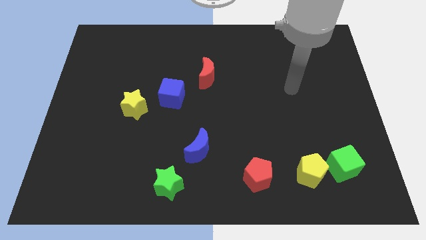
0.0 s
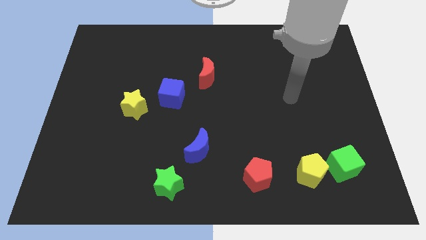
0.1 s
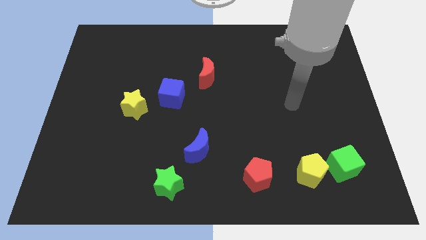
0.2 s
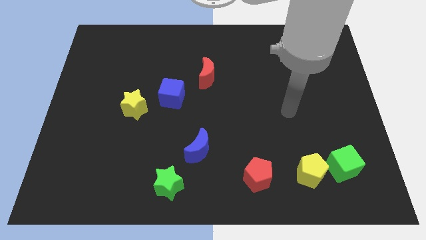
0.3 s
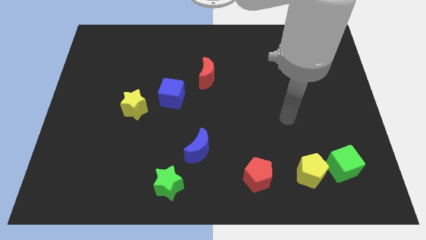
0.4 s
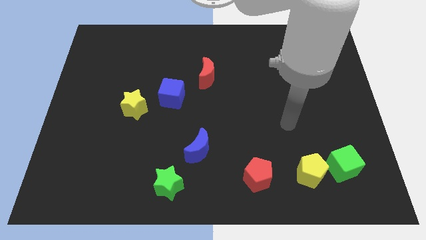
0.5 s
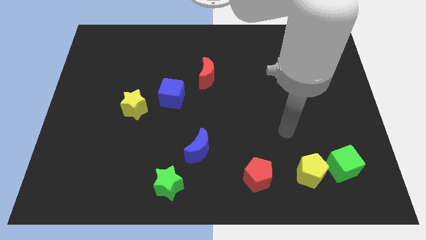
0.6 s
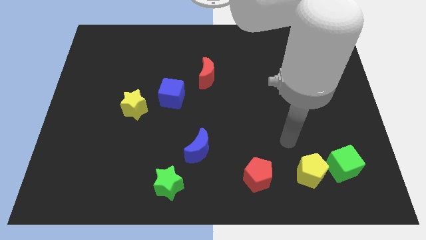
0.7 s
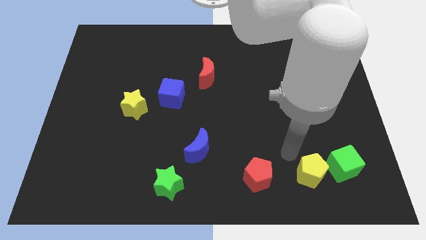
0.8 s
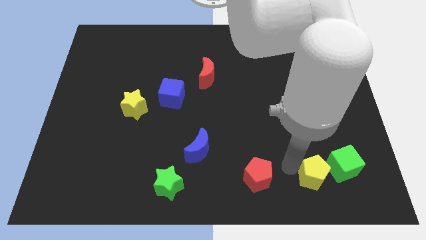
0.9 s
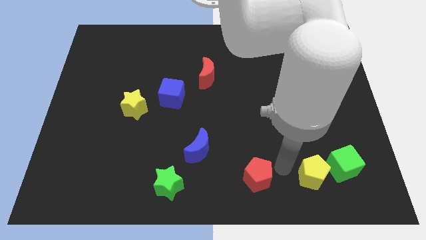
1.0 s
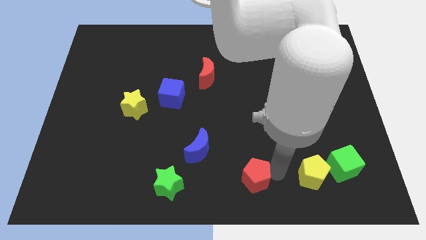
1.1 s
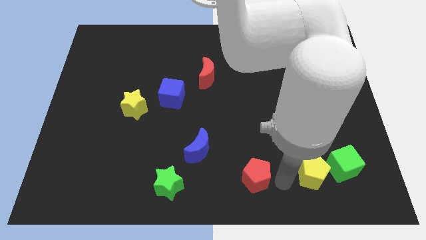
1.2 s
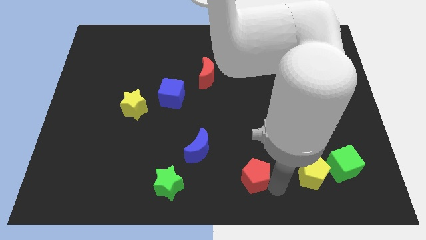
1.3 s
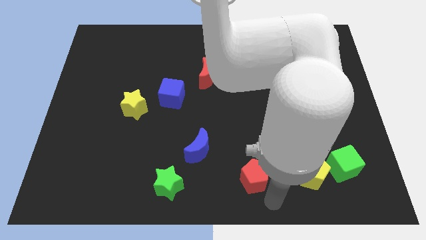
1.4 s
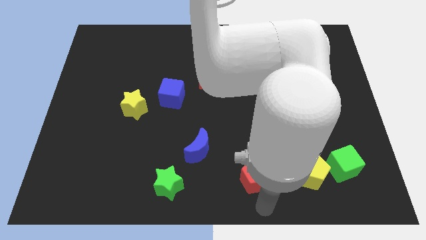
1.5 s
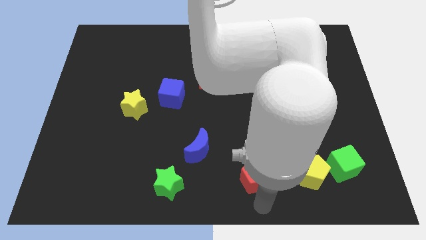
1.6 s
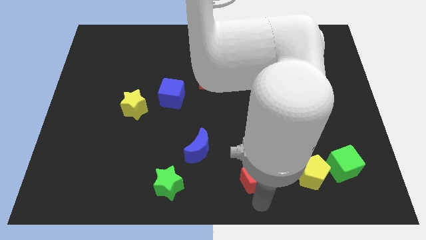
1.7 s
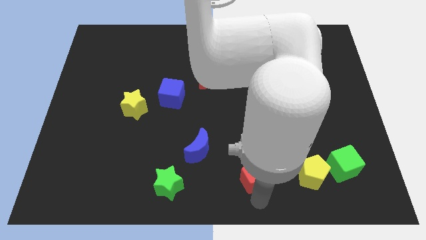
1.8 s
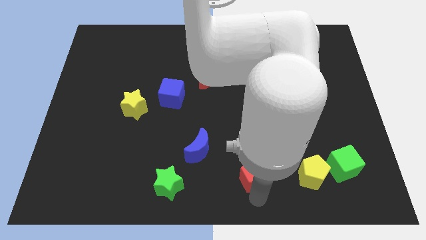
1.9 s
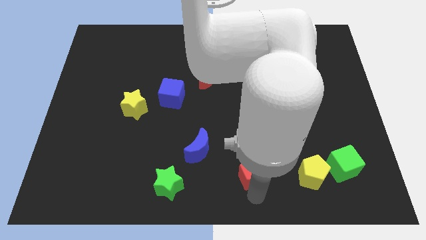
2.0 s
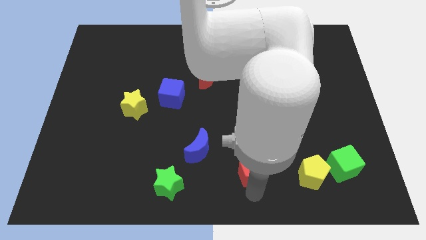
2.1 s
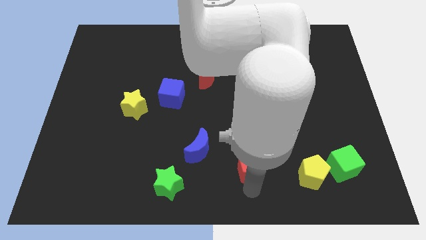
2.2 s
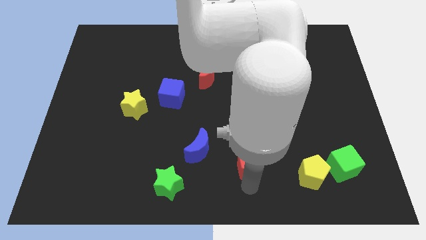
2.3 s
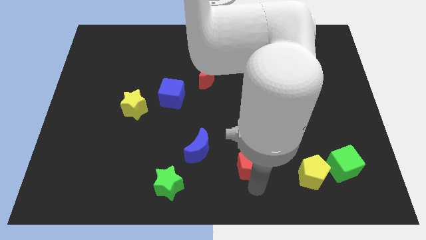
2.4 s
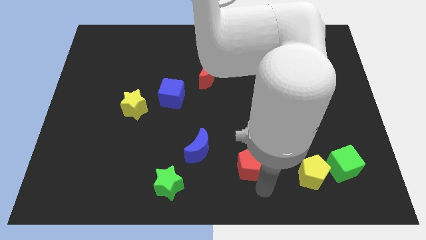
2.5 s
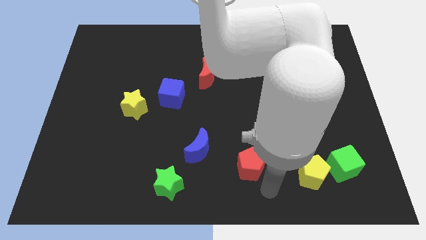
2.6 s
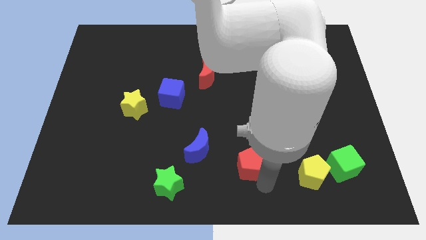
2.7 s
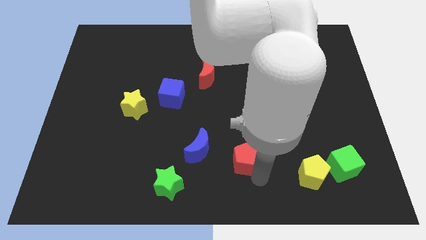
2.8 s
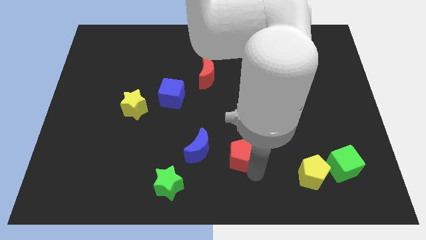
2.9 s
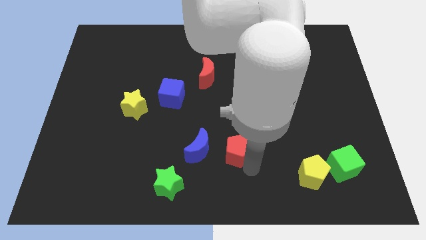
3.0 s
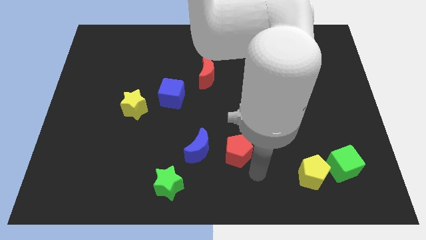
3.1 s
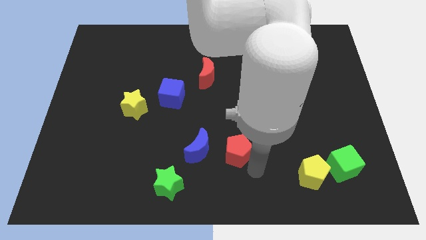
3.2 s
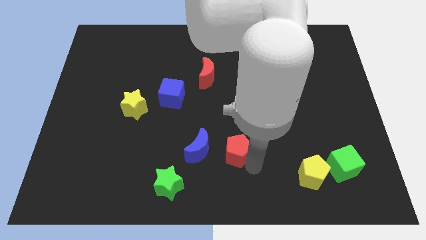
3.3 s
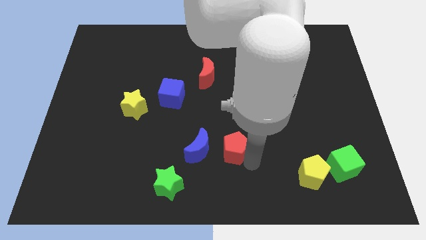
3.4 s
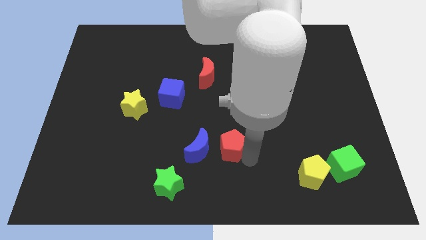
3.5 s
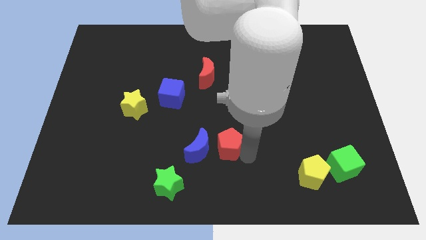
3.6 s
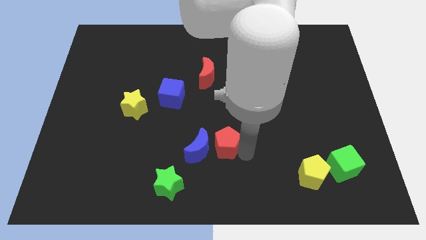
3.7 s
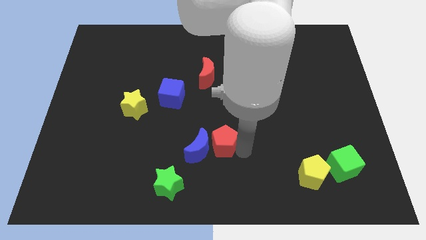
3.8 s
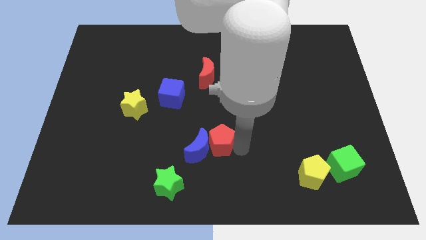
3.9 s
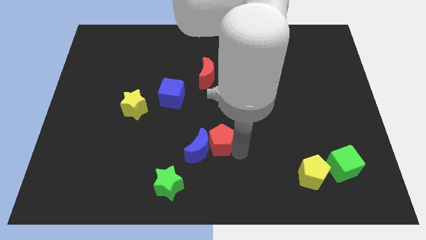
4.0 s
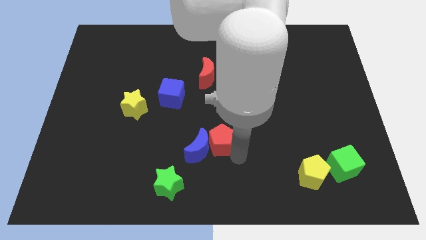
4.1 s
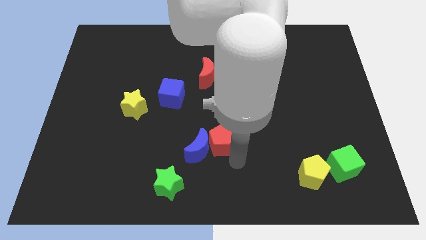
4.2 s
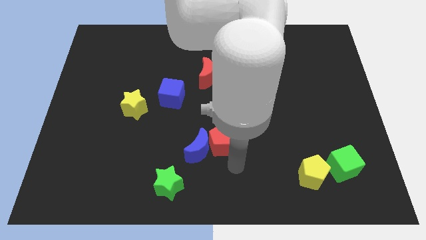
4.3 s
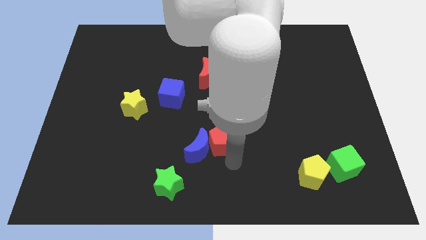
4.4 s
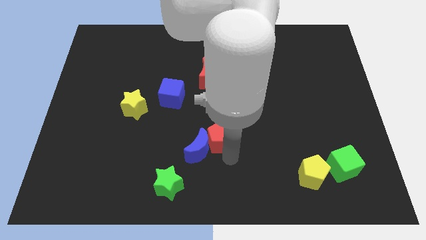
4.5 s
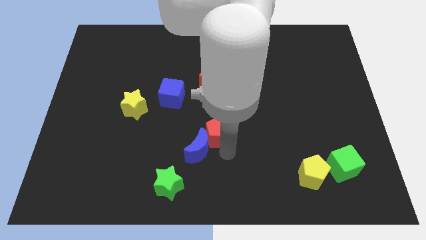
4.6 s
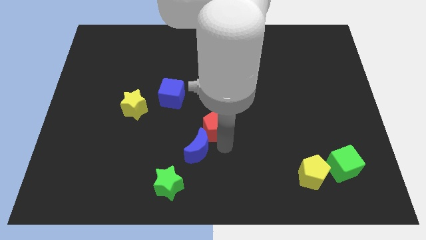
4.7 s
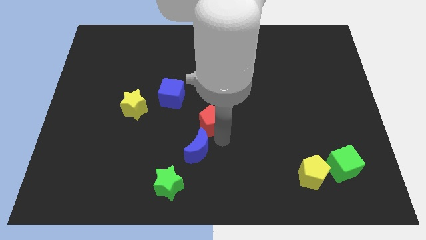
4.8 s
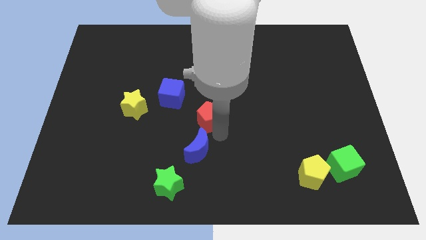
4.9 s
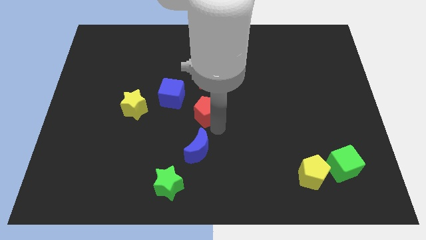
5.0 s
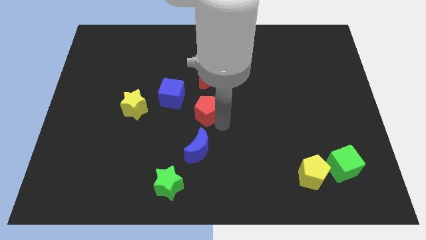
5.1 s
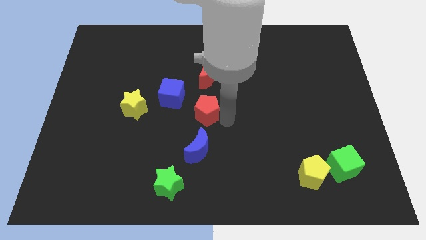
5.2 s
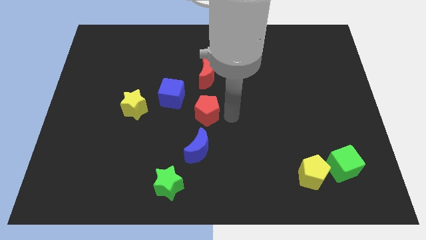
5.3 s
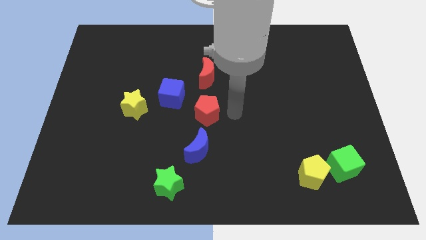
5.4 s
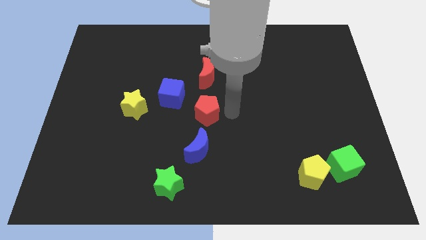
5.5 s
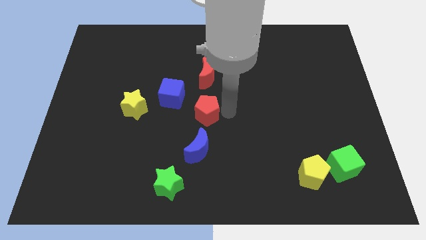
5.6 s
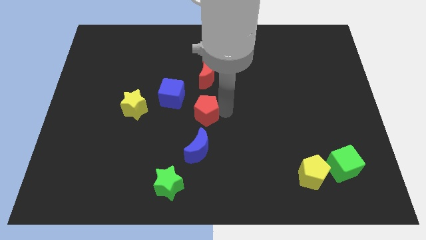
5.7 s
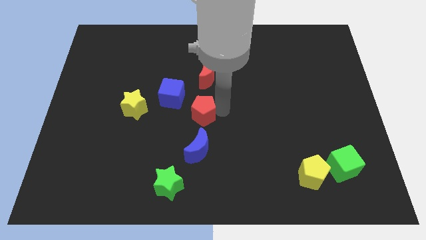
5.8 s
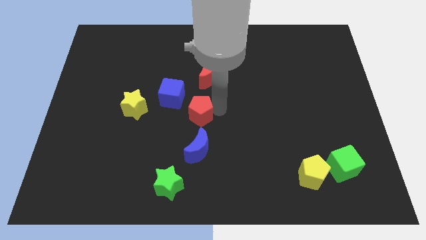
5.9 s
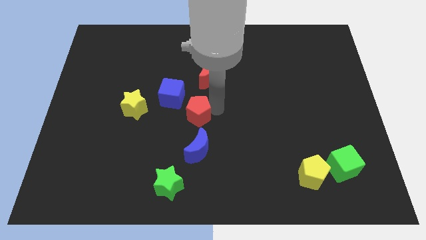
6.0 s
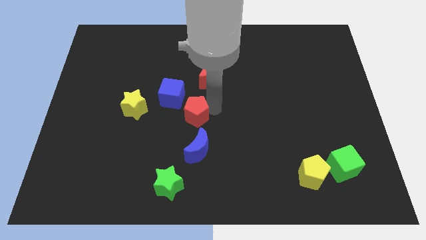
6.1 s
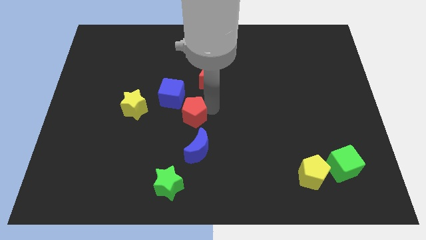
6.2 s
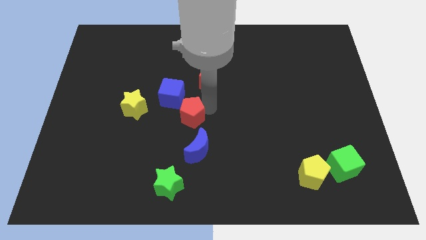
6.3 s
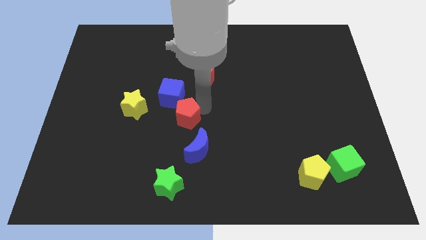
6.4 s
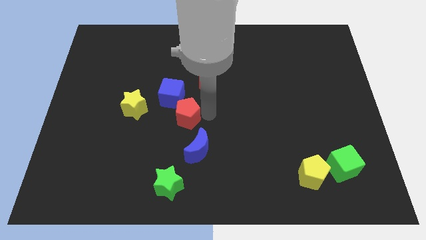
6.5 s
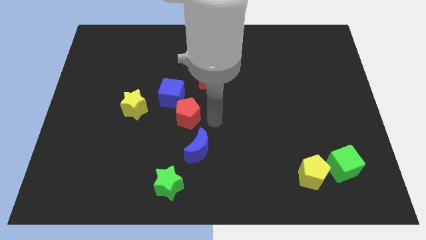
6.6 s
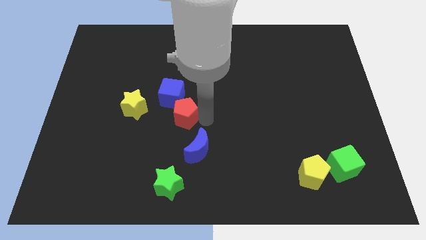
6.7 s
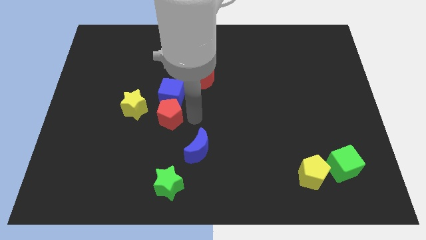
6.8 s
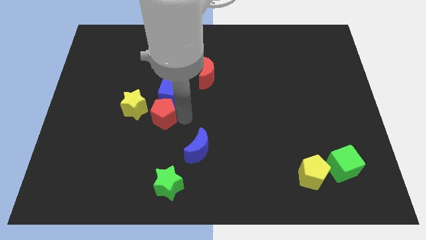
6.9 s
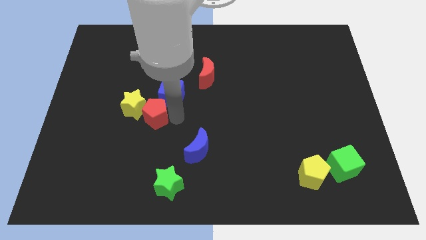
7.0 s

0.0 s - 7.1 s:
slide the red pentagon towards the yellow star

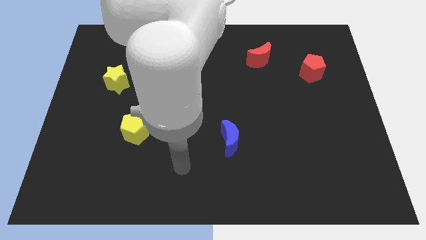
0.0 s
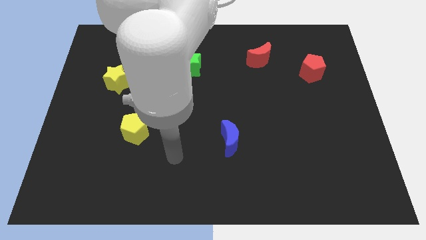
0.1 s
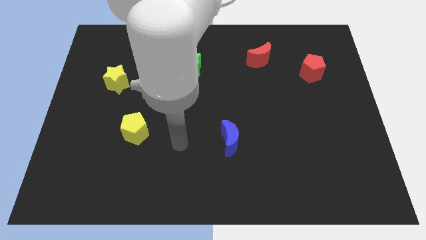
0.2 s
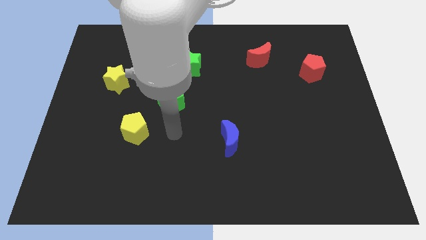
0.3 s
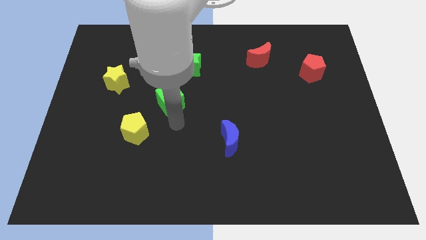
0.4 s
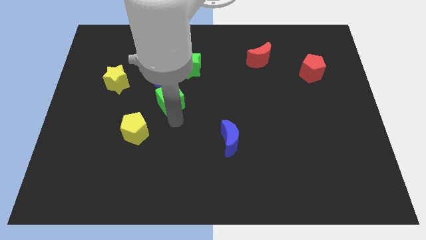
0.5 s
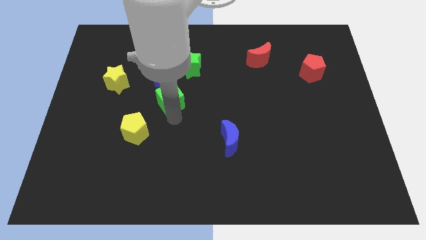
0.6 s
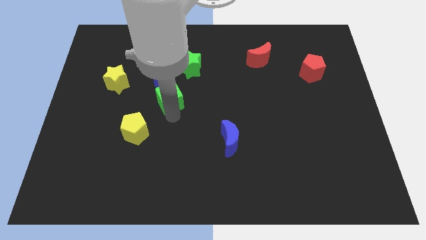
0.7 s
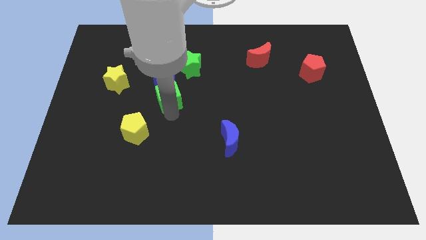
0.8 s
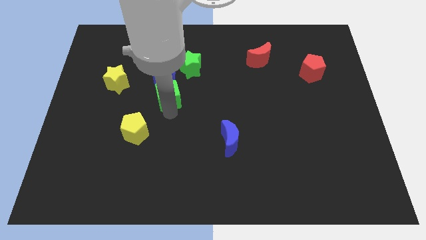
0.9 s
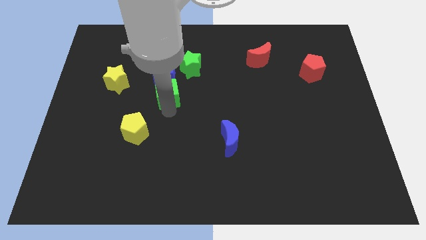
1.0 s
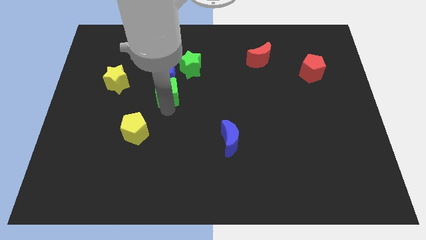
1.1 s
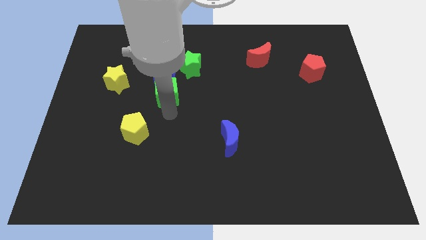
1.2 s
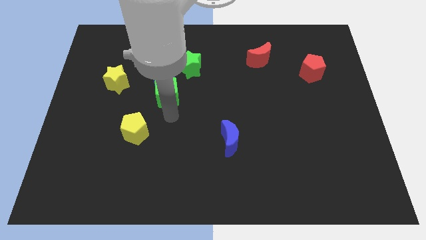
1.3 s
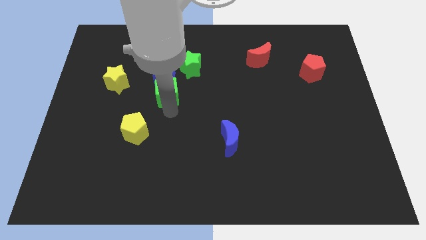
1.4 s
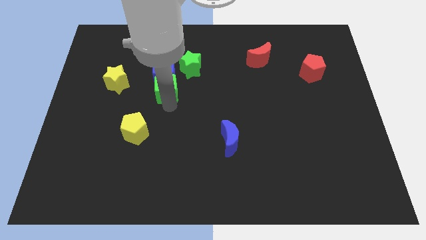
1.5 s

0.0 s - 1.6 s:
slide the green cube to the blue cube
